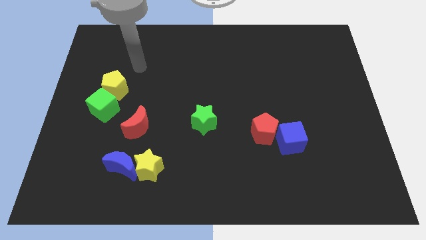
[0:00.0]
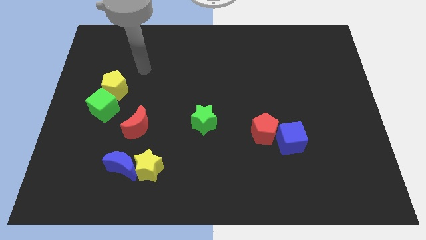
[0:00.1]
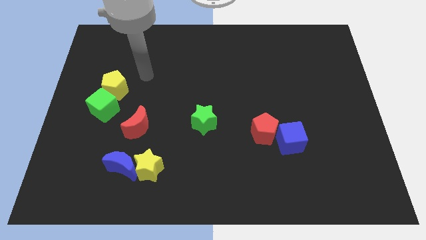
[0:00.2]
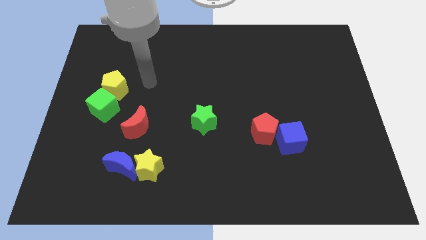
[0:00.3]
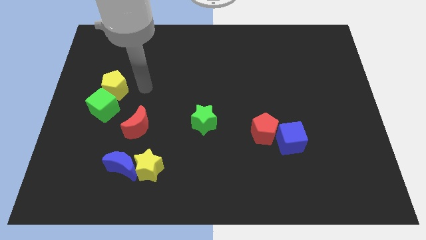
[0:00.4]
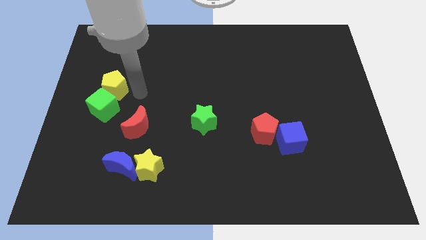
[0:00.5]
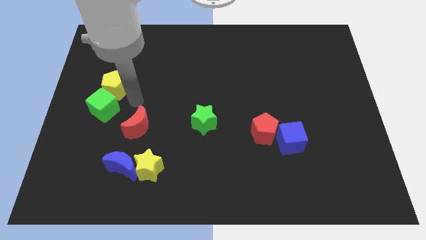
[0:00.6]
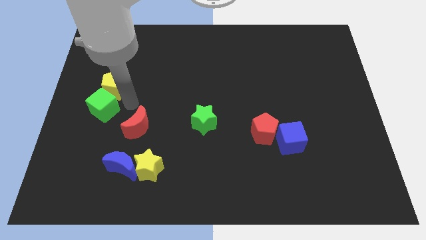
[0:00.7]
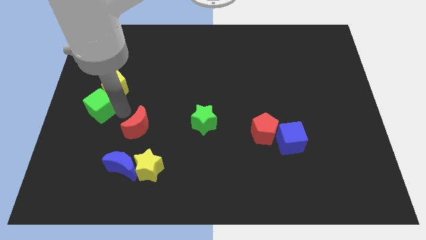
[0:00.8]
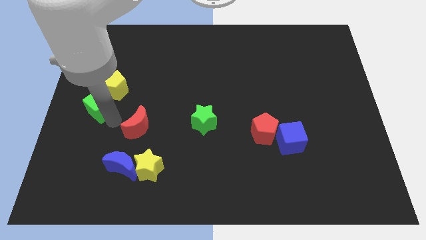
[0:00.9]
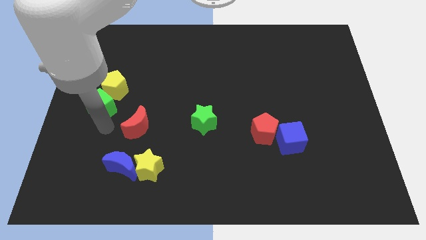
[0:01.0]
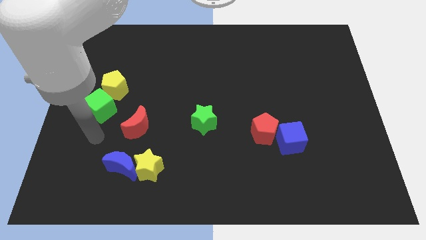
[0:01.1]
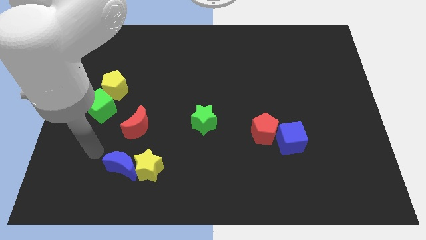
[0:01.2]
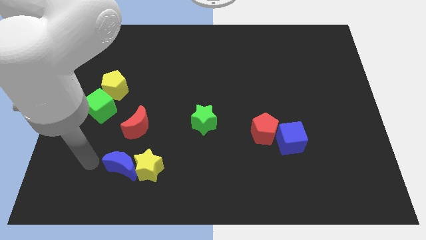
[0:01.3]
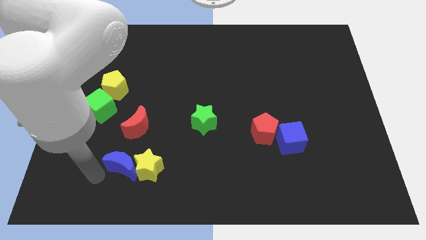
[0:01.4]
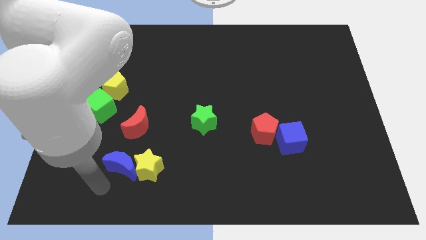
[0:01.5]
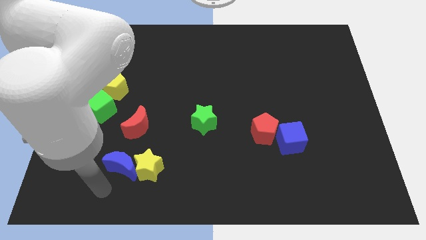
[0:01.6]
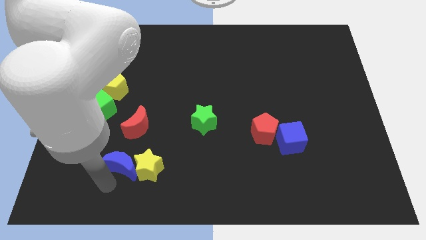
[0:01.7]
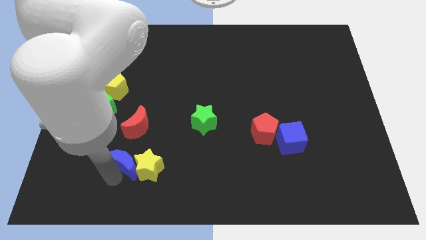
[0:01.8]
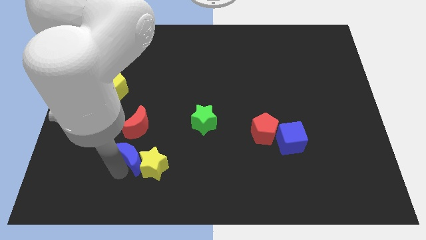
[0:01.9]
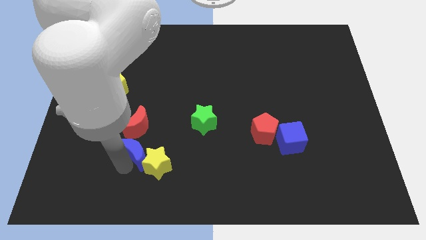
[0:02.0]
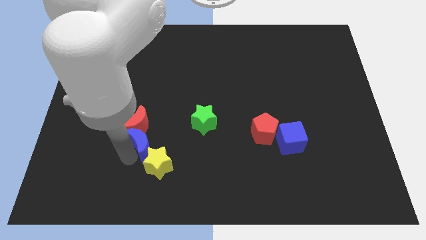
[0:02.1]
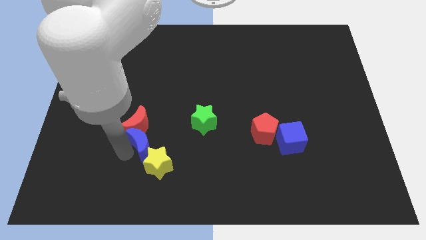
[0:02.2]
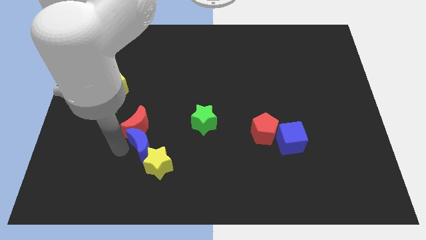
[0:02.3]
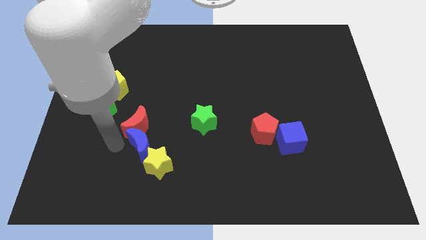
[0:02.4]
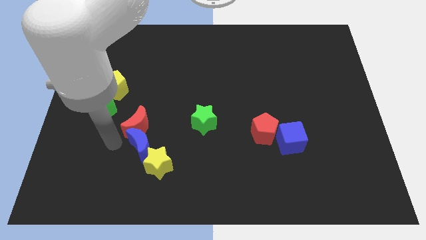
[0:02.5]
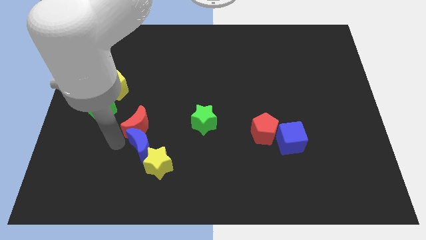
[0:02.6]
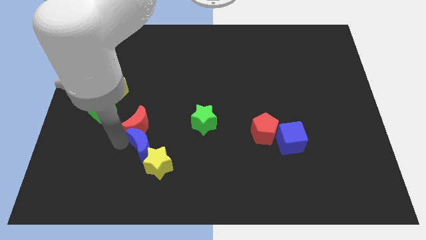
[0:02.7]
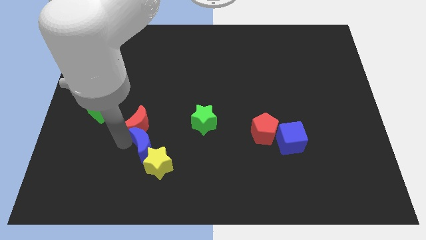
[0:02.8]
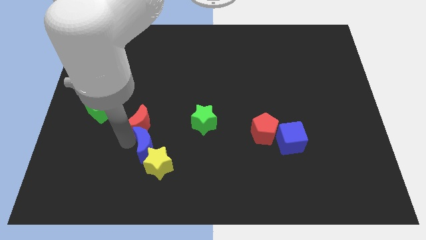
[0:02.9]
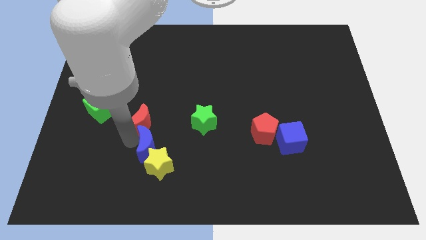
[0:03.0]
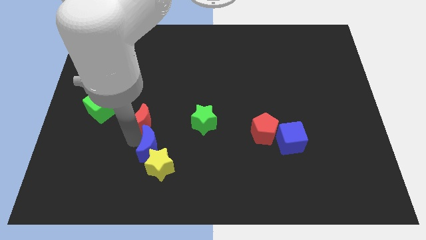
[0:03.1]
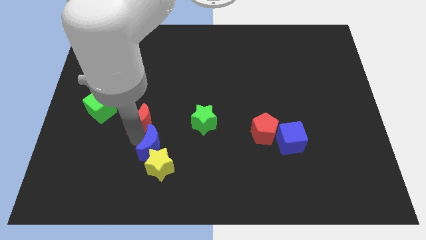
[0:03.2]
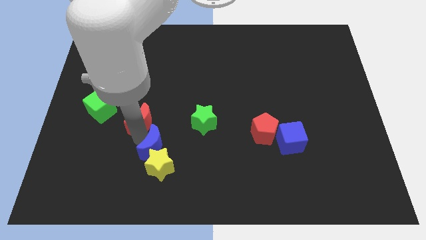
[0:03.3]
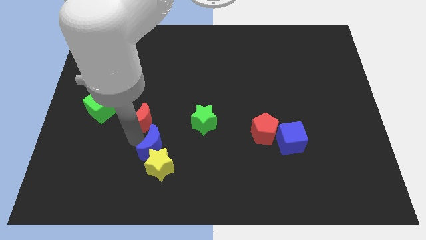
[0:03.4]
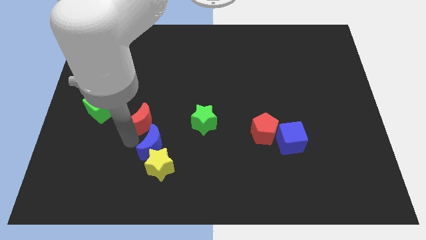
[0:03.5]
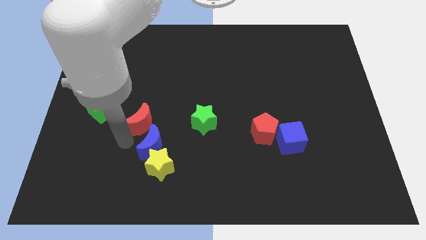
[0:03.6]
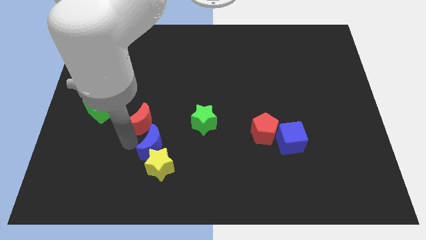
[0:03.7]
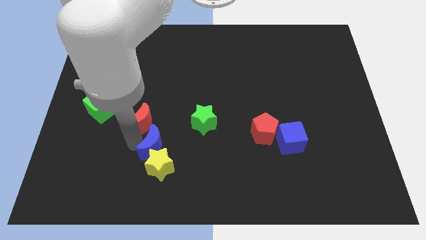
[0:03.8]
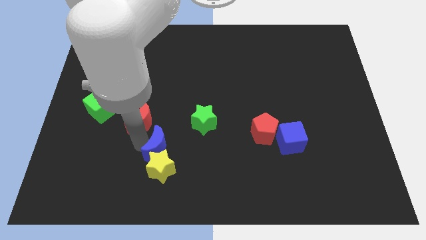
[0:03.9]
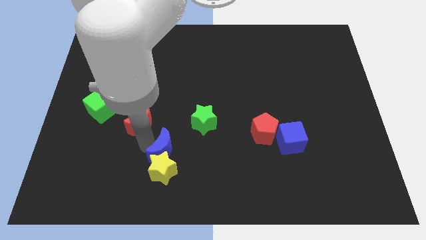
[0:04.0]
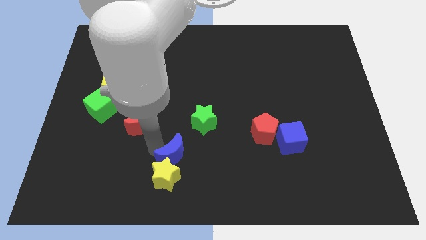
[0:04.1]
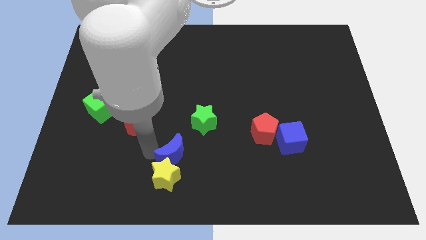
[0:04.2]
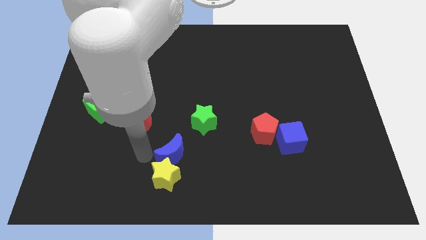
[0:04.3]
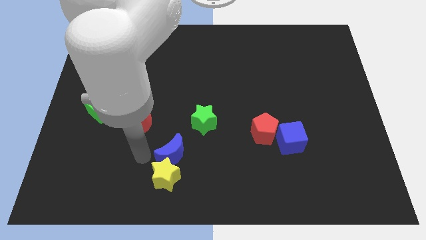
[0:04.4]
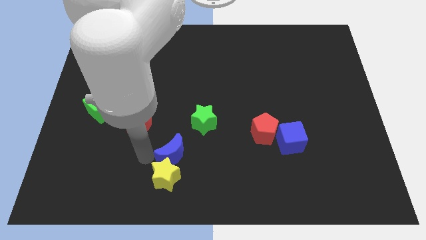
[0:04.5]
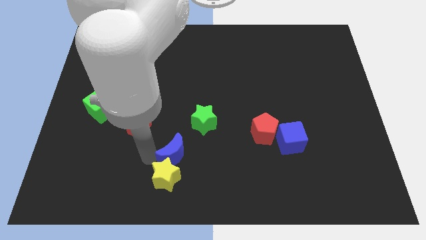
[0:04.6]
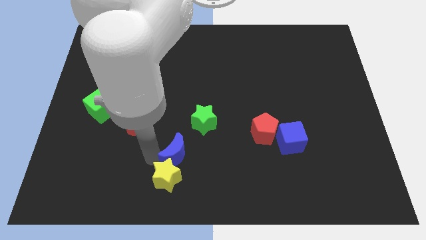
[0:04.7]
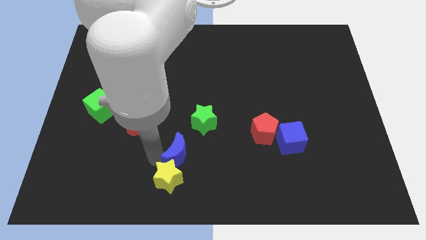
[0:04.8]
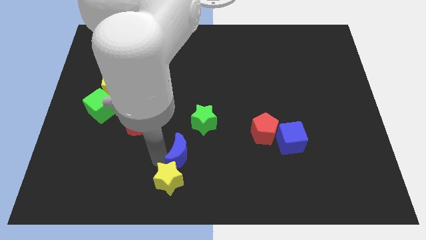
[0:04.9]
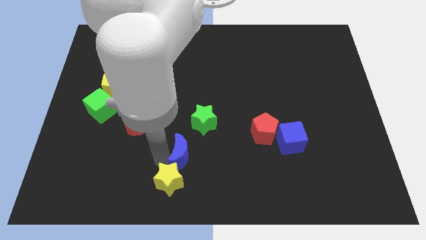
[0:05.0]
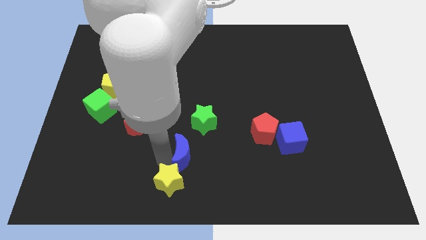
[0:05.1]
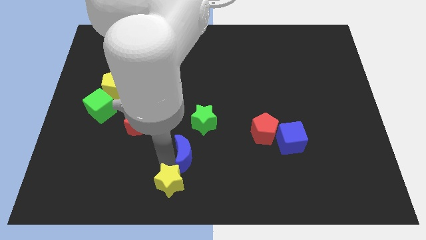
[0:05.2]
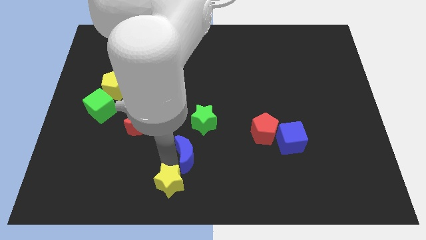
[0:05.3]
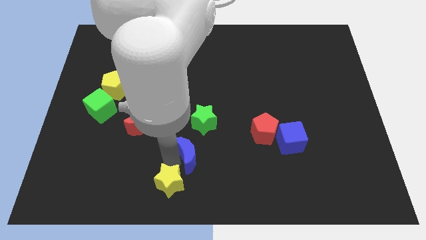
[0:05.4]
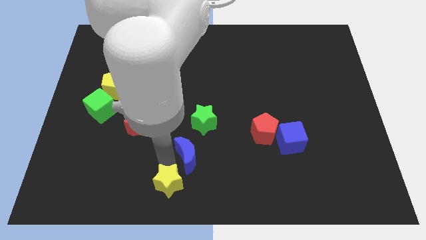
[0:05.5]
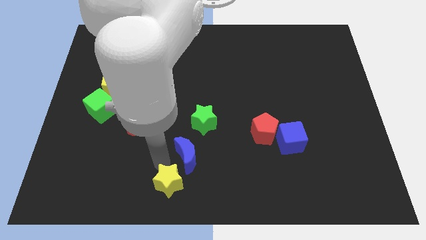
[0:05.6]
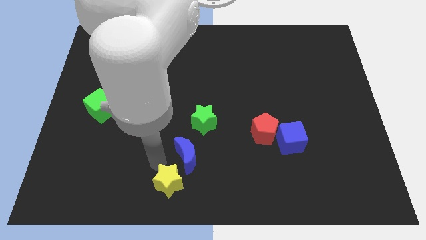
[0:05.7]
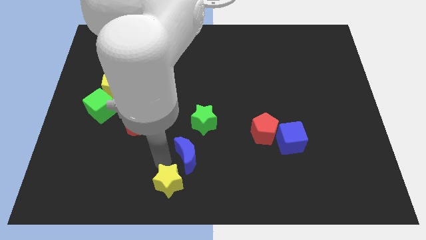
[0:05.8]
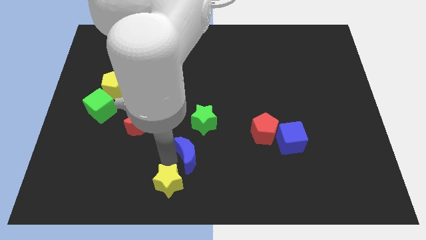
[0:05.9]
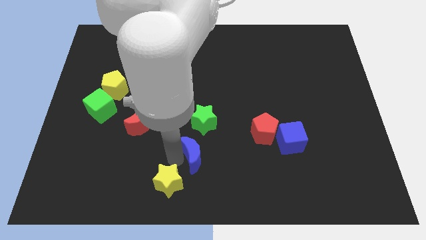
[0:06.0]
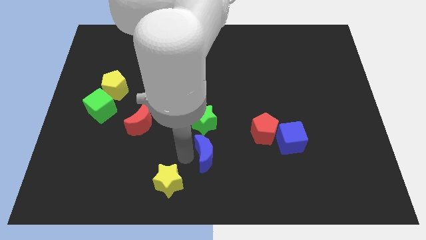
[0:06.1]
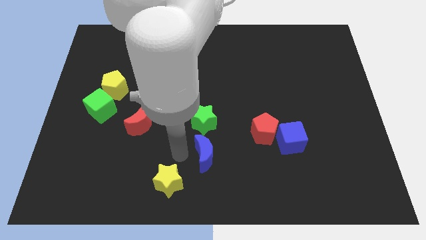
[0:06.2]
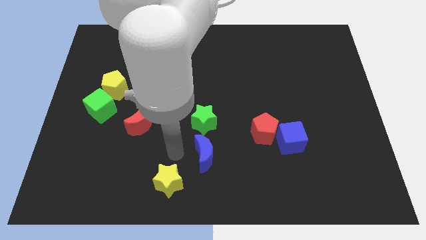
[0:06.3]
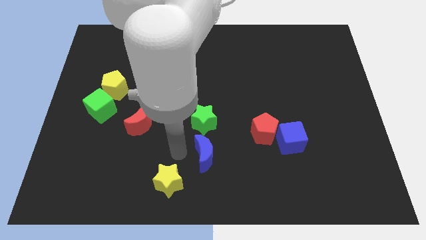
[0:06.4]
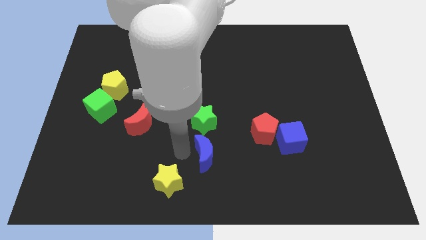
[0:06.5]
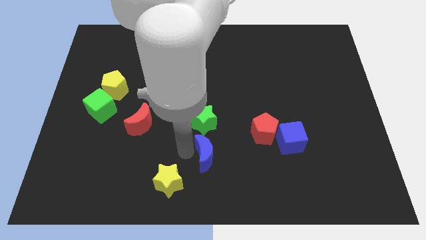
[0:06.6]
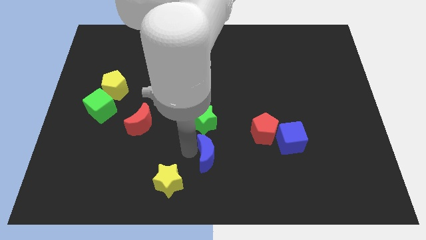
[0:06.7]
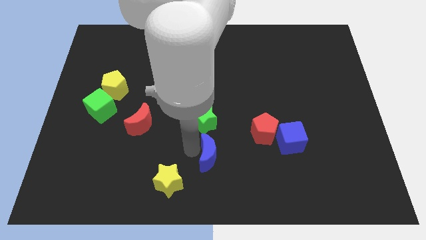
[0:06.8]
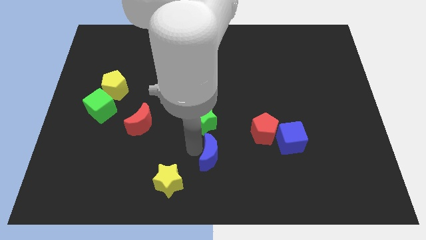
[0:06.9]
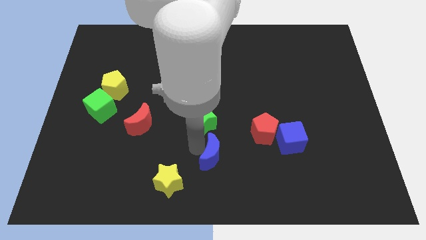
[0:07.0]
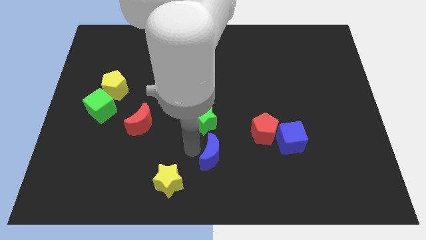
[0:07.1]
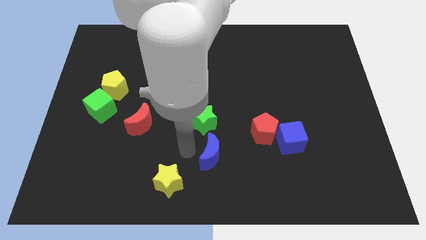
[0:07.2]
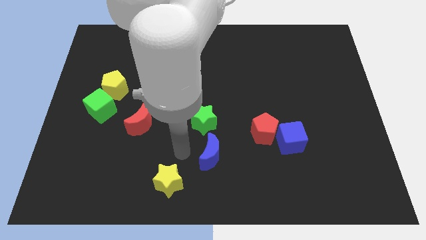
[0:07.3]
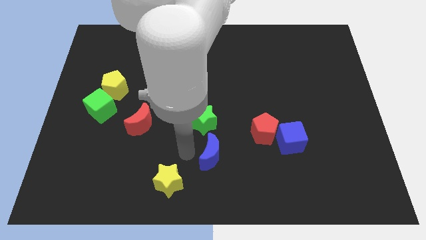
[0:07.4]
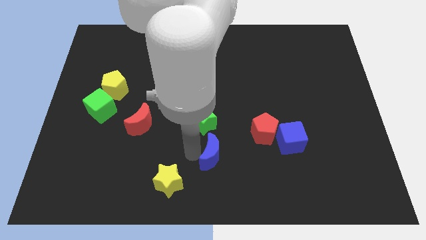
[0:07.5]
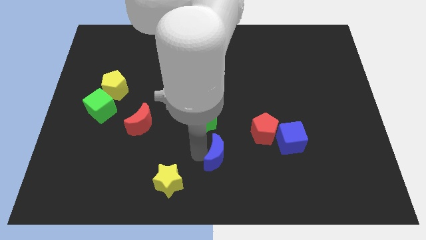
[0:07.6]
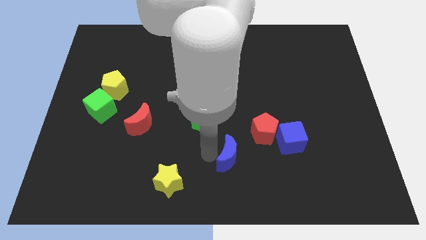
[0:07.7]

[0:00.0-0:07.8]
push the blue moon right

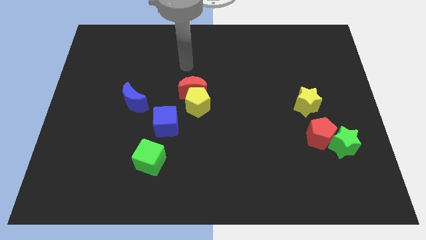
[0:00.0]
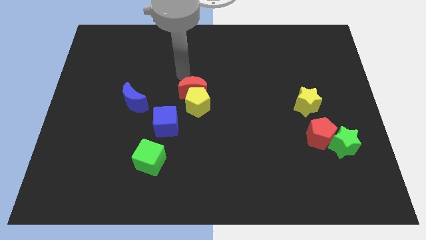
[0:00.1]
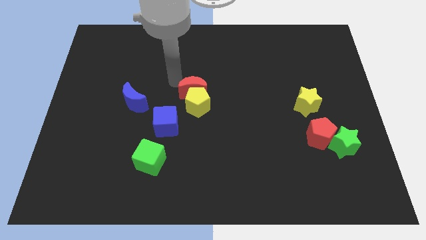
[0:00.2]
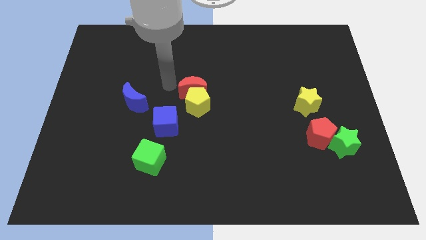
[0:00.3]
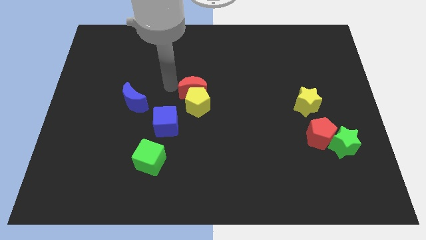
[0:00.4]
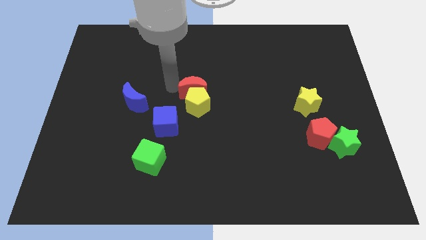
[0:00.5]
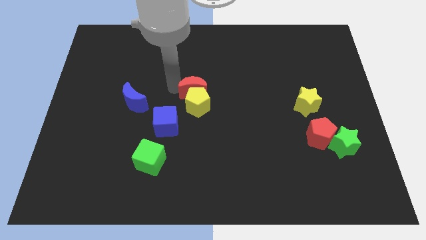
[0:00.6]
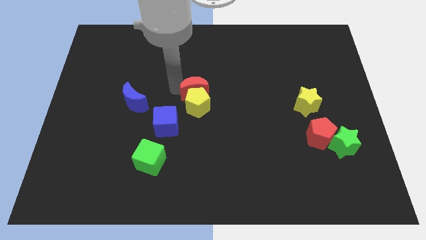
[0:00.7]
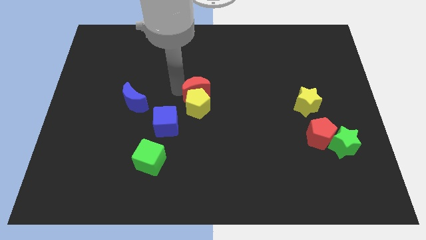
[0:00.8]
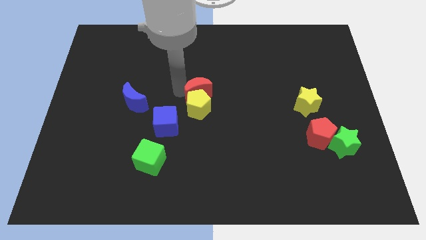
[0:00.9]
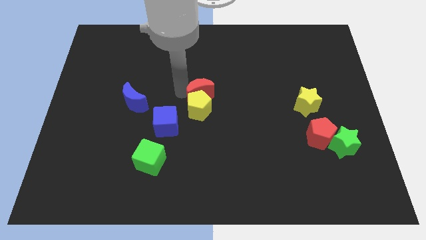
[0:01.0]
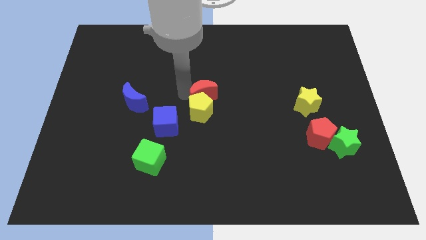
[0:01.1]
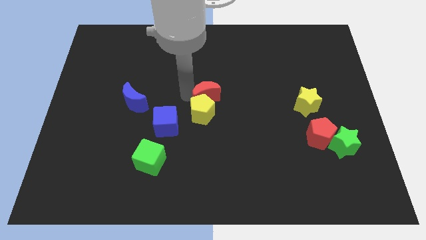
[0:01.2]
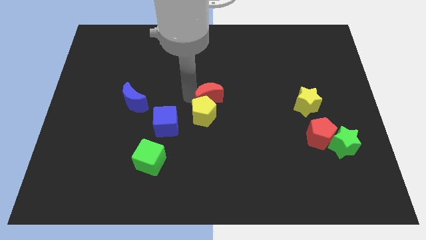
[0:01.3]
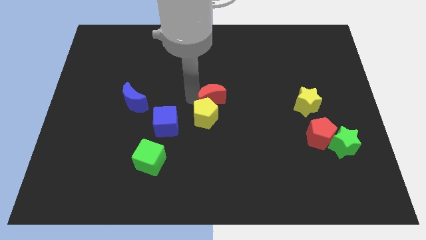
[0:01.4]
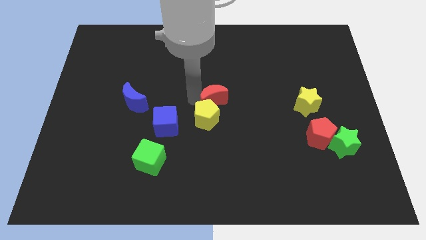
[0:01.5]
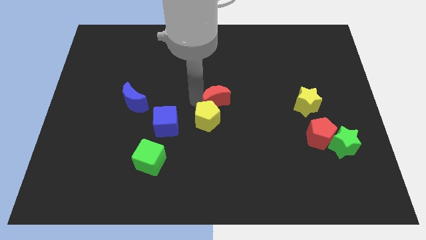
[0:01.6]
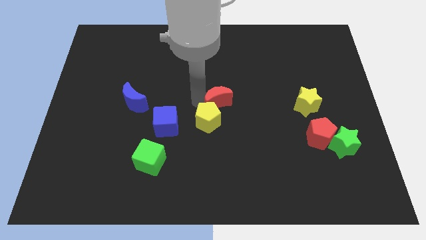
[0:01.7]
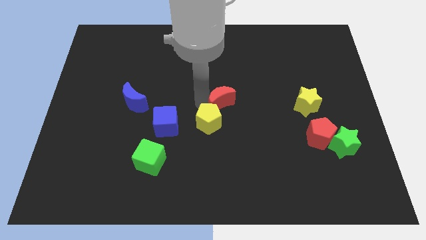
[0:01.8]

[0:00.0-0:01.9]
slide the red moon downwards and right diagonally somewhat
